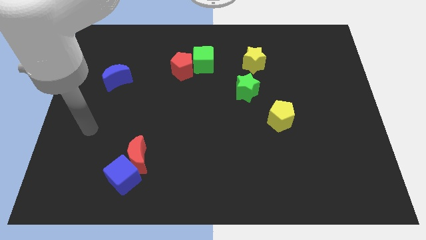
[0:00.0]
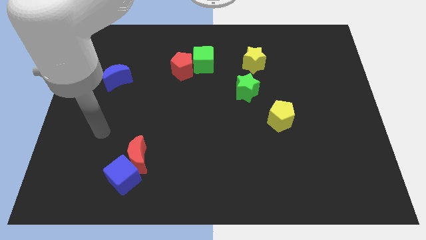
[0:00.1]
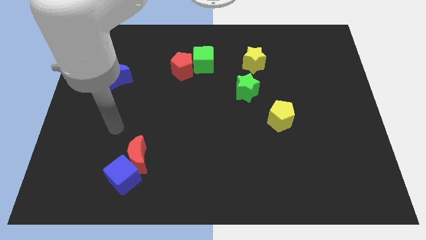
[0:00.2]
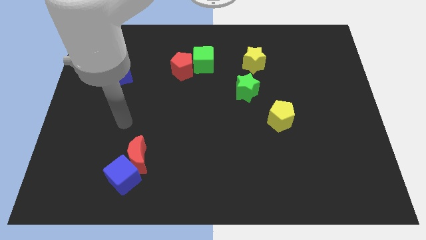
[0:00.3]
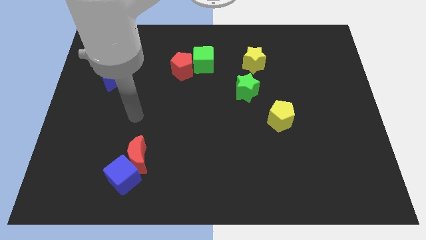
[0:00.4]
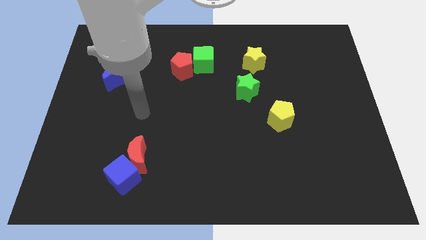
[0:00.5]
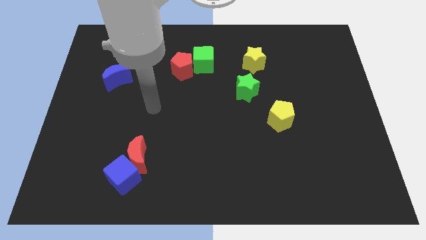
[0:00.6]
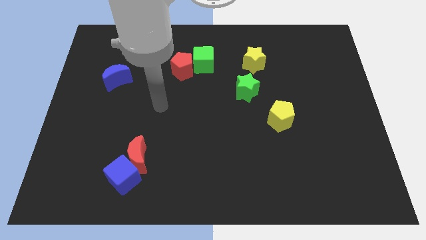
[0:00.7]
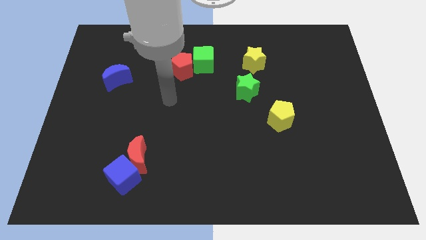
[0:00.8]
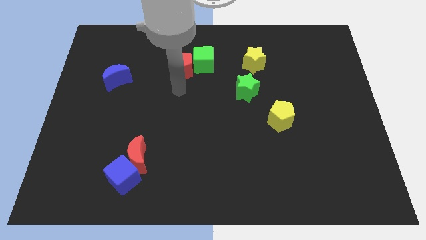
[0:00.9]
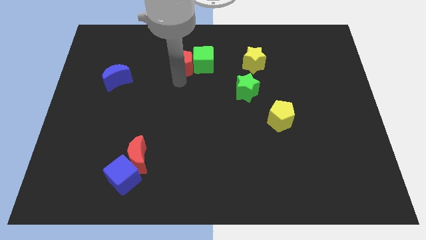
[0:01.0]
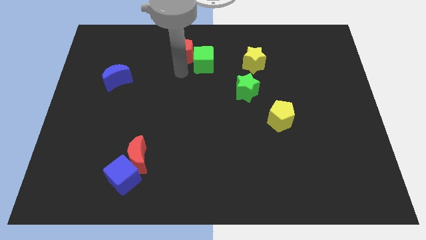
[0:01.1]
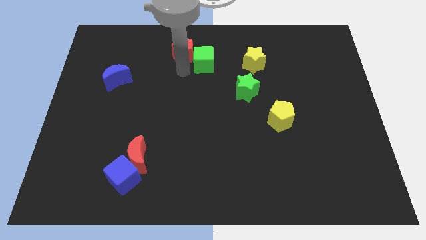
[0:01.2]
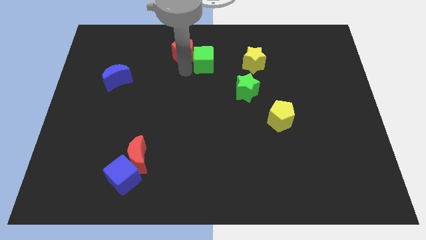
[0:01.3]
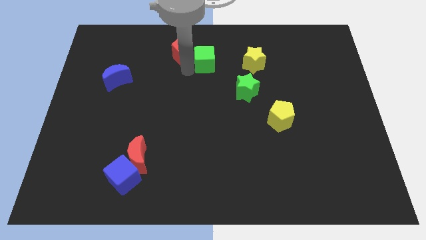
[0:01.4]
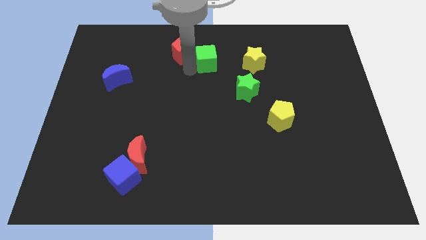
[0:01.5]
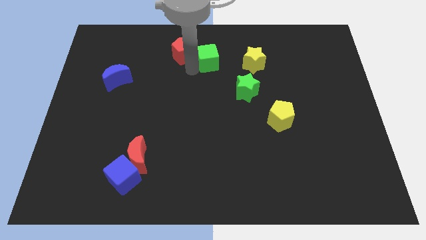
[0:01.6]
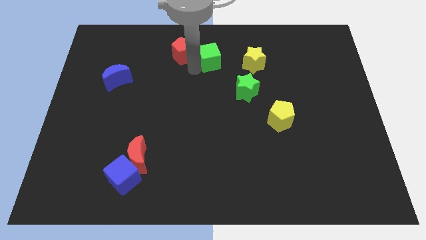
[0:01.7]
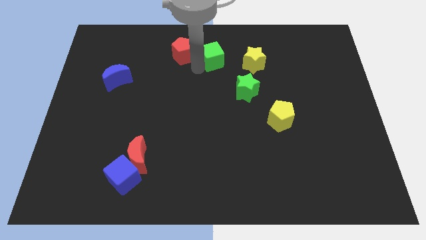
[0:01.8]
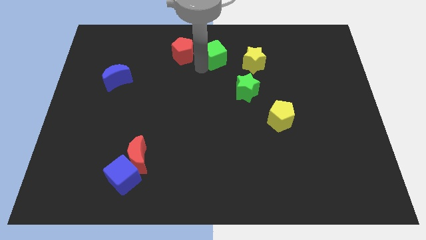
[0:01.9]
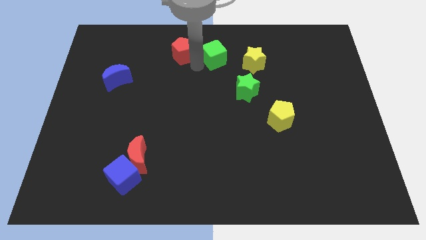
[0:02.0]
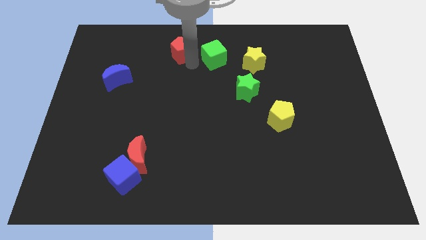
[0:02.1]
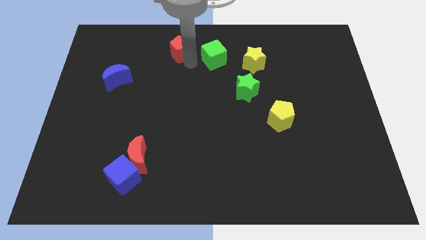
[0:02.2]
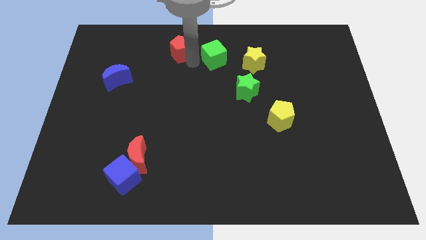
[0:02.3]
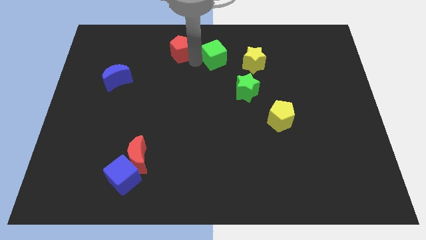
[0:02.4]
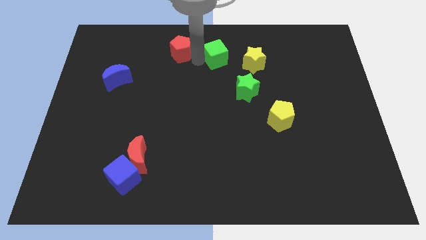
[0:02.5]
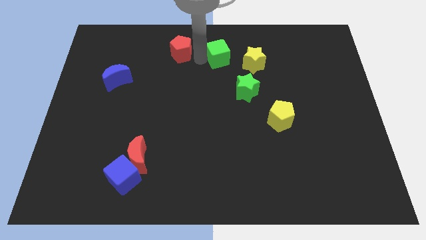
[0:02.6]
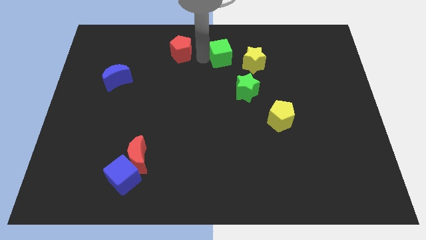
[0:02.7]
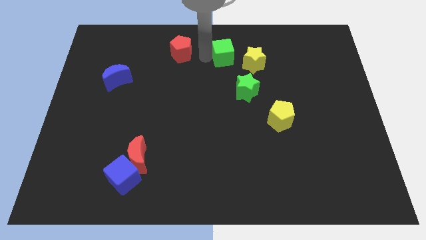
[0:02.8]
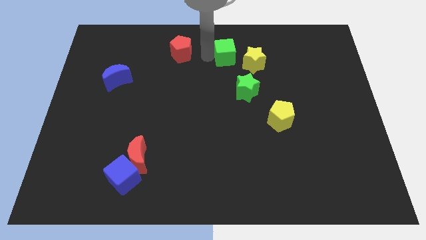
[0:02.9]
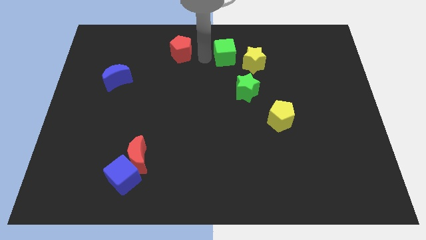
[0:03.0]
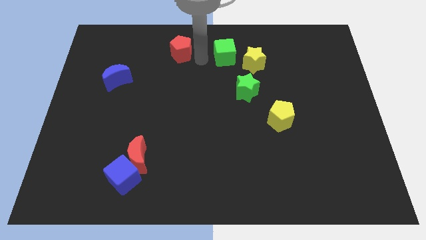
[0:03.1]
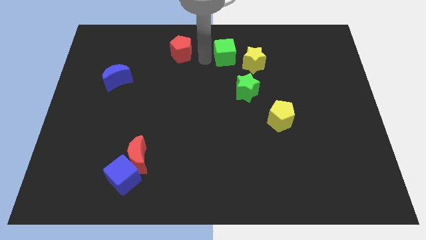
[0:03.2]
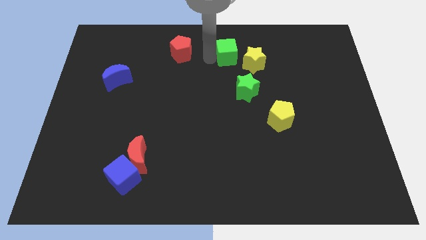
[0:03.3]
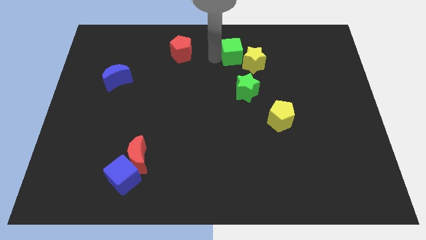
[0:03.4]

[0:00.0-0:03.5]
move the green cube a little to the right

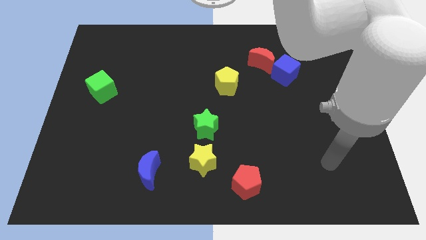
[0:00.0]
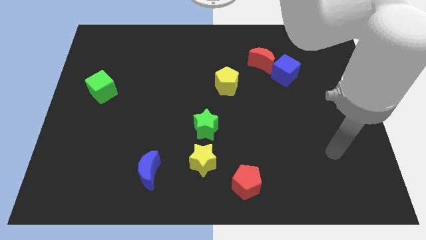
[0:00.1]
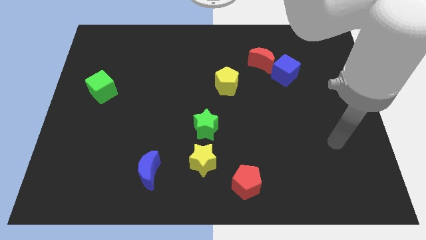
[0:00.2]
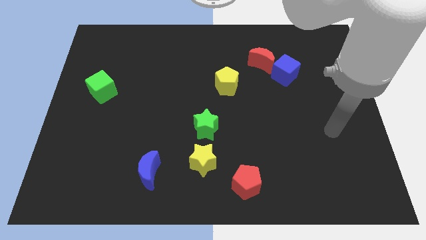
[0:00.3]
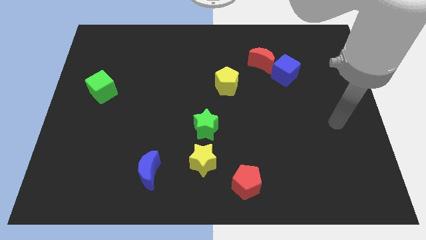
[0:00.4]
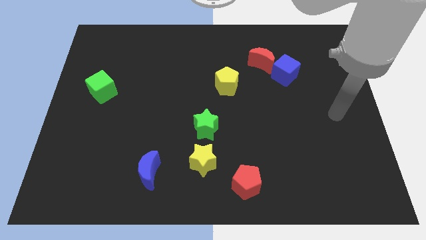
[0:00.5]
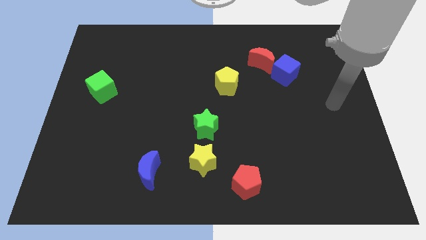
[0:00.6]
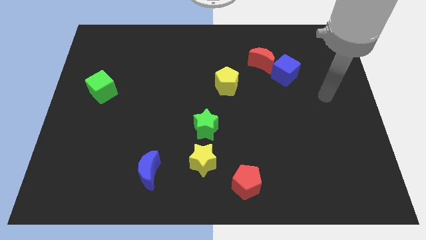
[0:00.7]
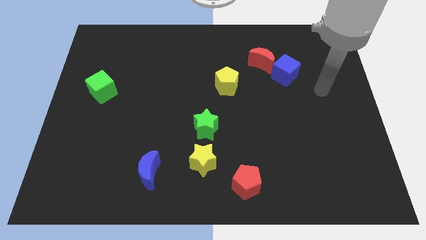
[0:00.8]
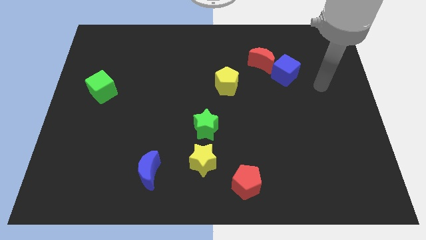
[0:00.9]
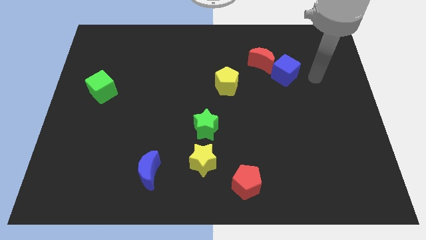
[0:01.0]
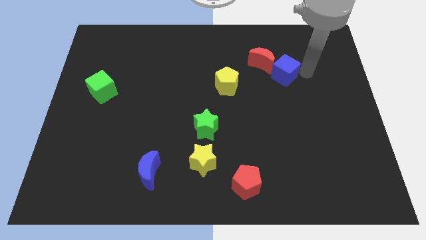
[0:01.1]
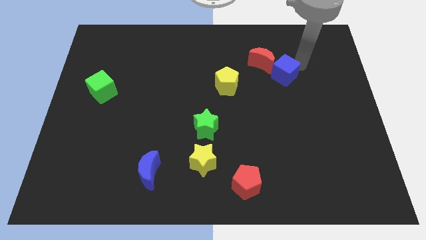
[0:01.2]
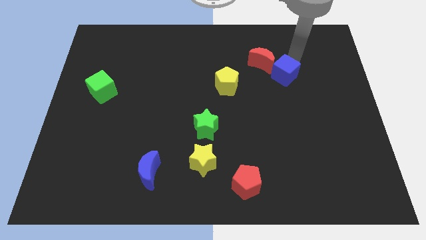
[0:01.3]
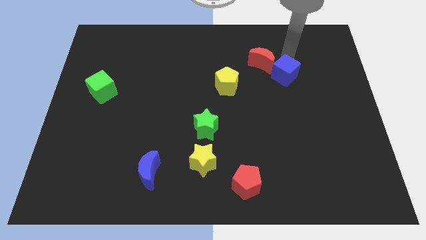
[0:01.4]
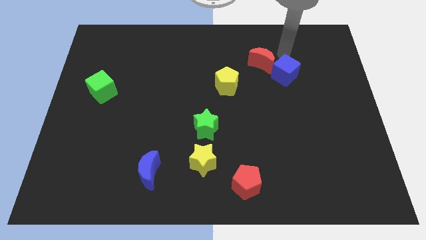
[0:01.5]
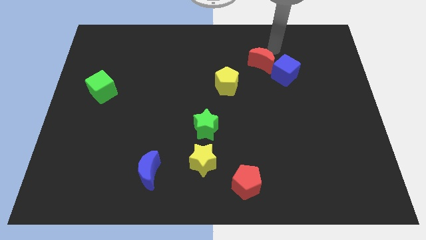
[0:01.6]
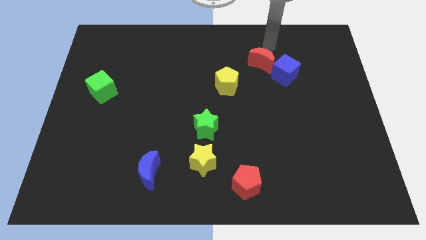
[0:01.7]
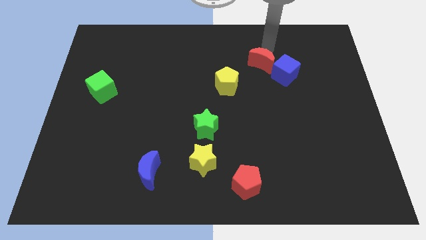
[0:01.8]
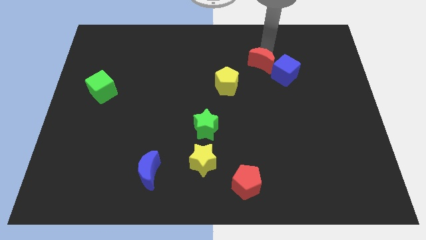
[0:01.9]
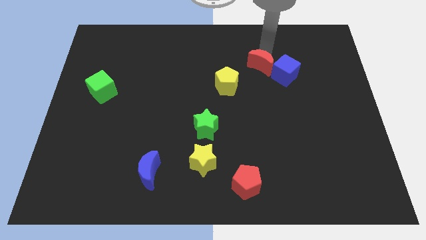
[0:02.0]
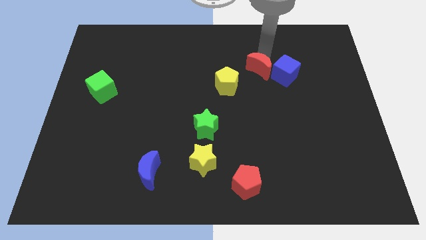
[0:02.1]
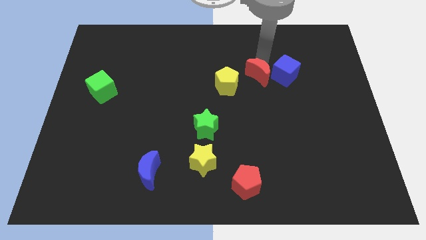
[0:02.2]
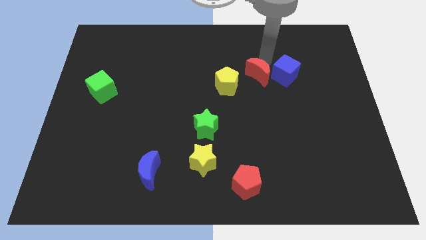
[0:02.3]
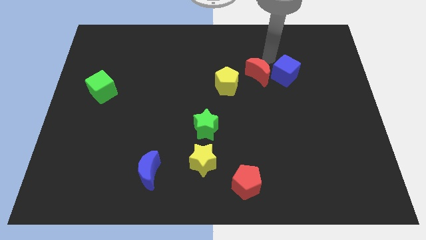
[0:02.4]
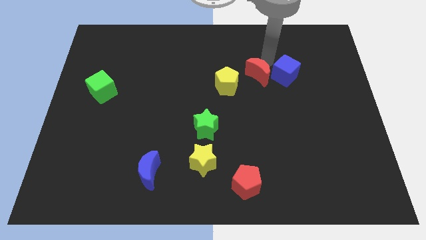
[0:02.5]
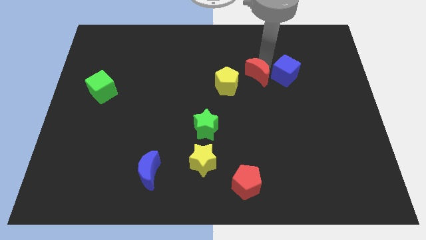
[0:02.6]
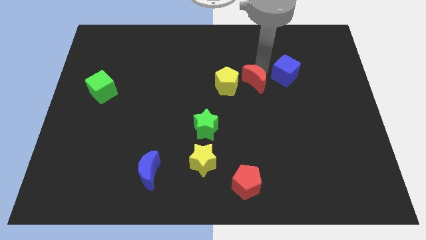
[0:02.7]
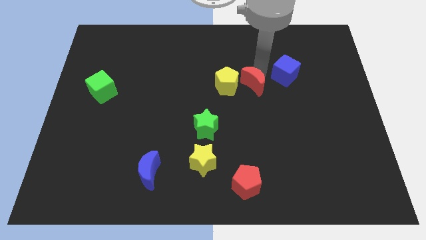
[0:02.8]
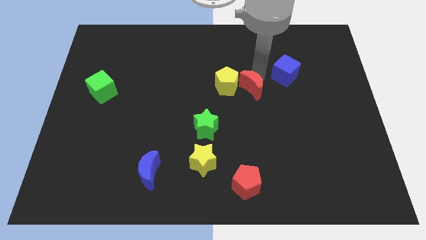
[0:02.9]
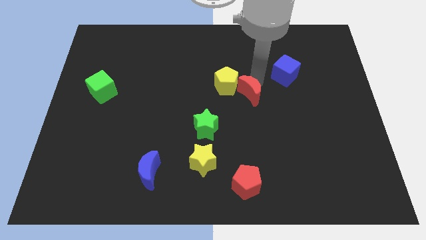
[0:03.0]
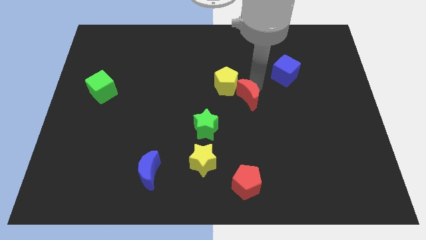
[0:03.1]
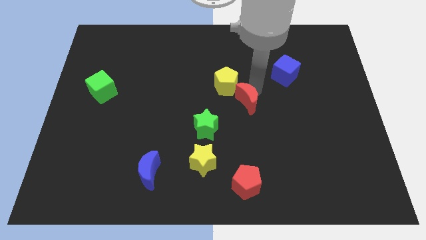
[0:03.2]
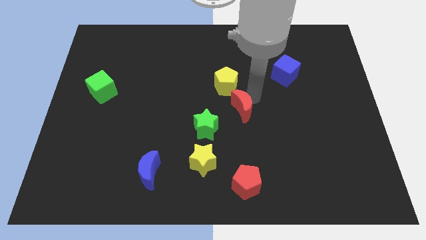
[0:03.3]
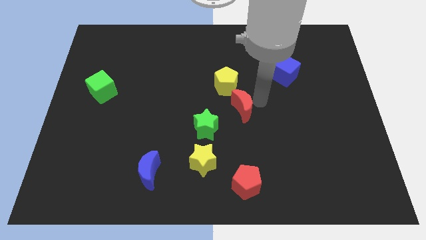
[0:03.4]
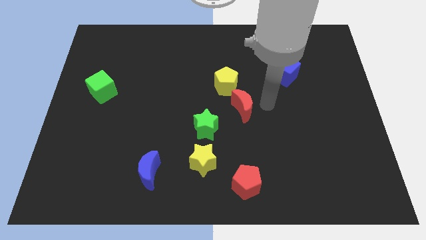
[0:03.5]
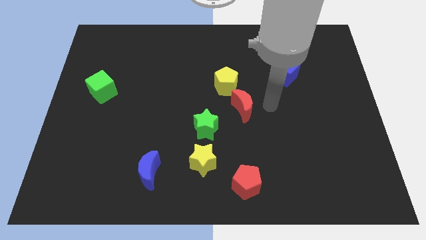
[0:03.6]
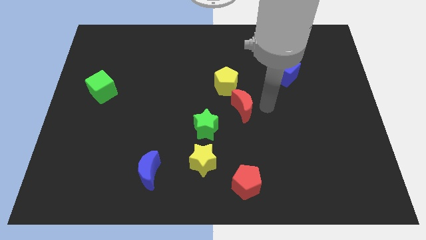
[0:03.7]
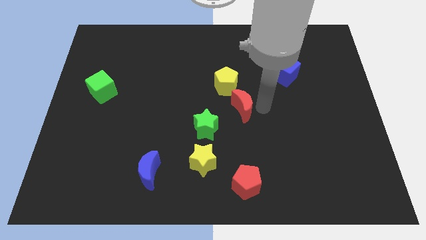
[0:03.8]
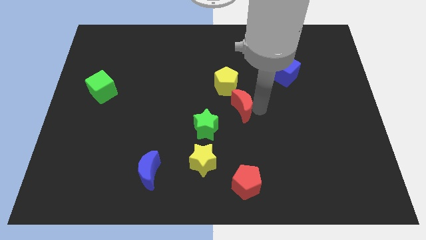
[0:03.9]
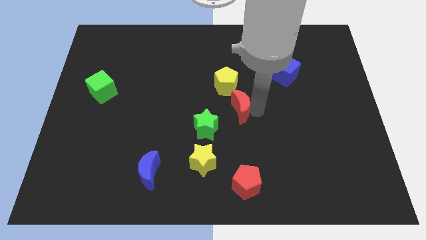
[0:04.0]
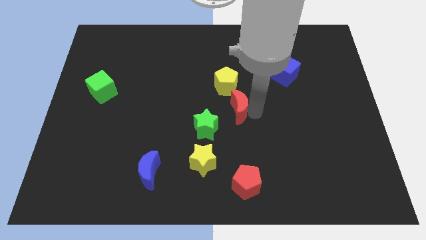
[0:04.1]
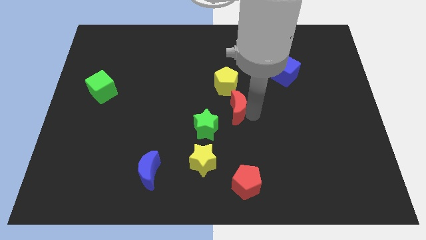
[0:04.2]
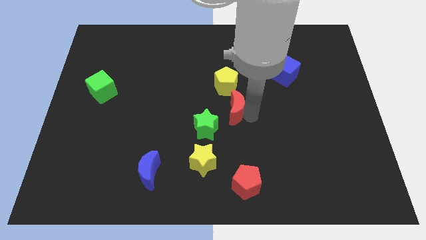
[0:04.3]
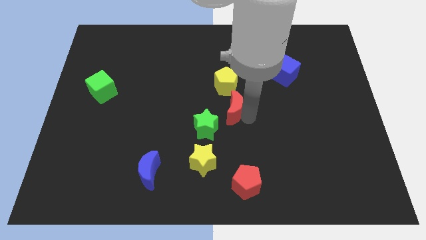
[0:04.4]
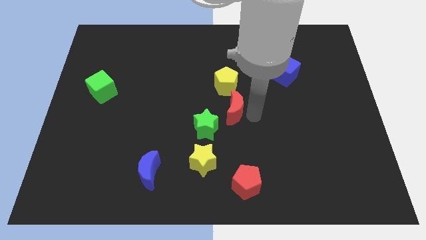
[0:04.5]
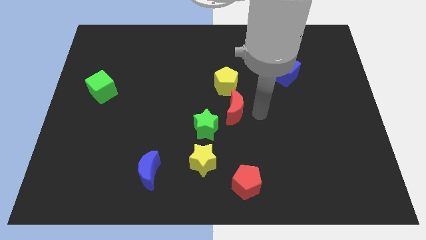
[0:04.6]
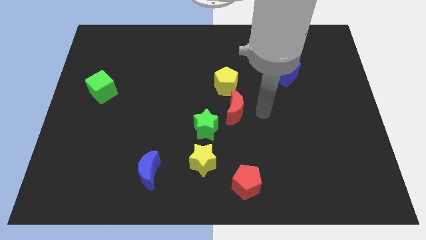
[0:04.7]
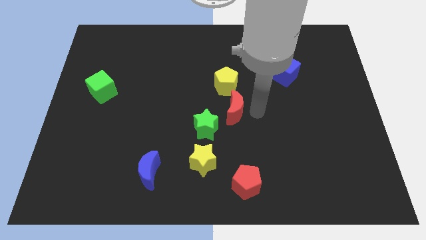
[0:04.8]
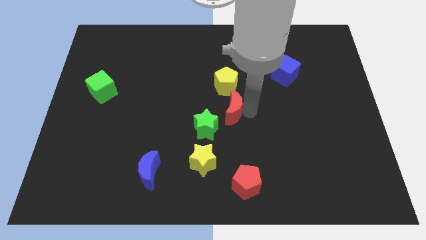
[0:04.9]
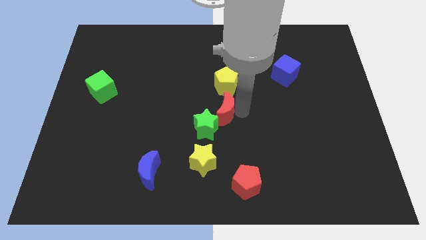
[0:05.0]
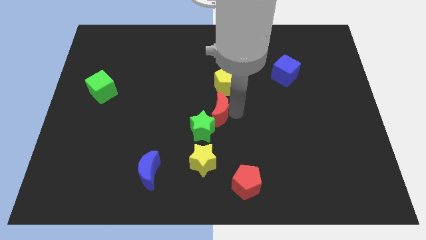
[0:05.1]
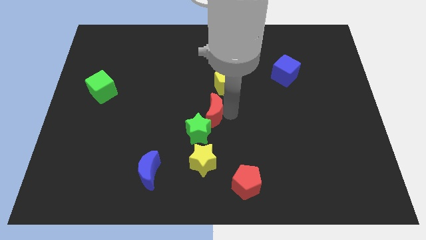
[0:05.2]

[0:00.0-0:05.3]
slide the red moon diagonally down and to the left
